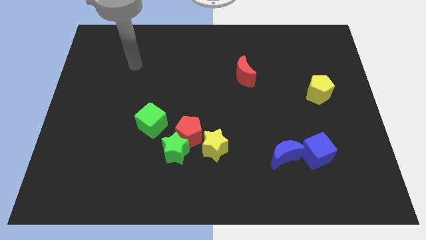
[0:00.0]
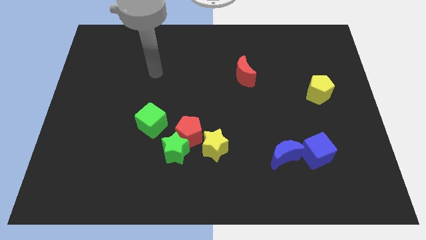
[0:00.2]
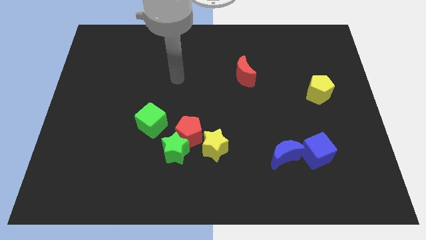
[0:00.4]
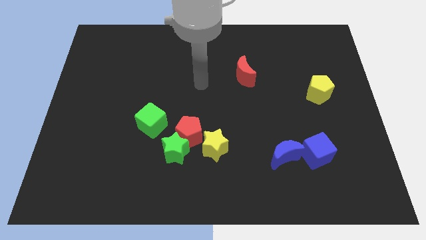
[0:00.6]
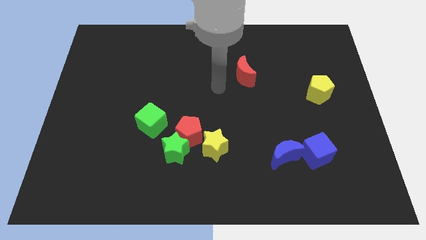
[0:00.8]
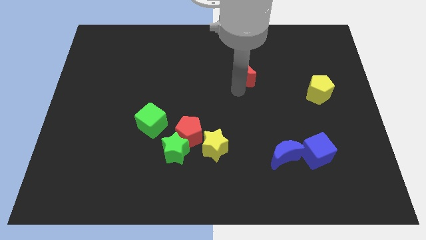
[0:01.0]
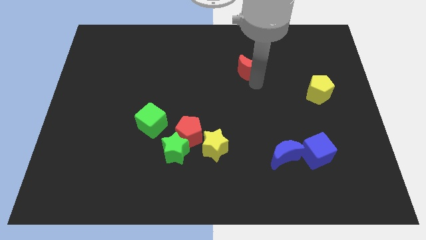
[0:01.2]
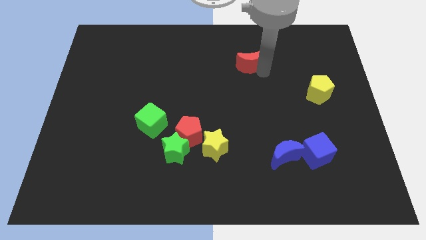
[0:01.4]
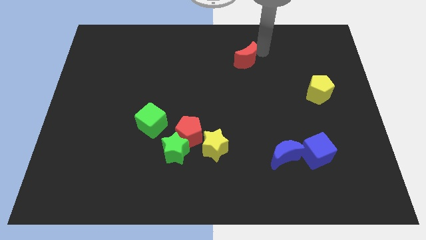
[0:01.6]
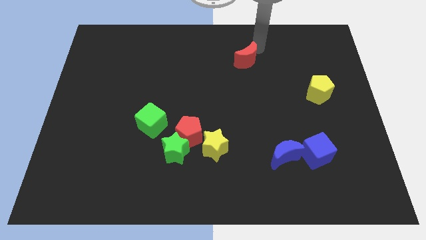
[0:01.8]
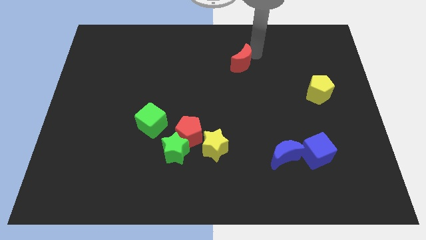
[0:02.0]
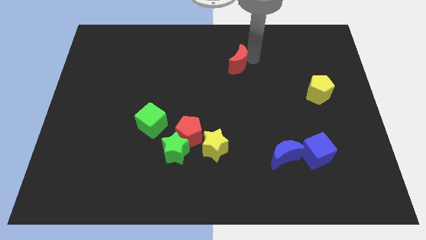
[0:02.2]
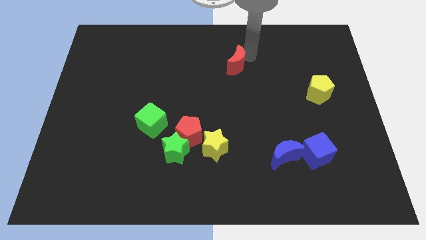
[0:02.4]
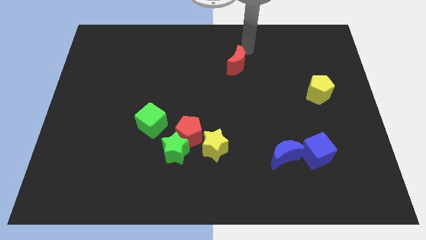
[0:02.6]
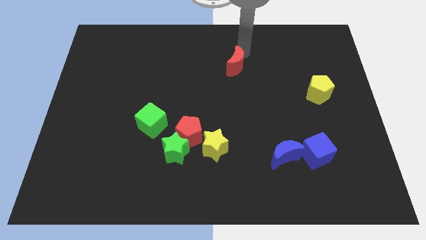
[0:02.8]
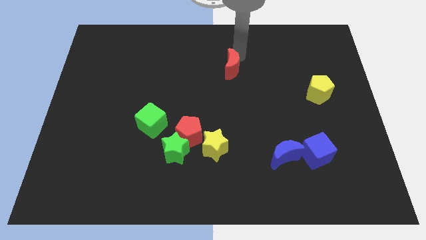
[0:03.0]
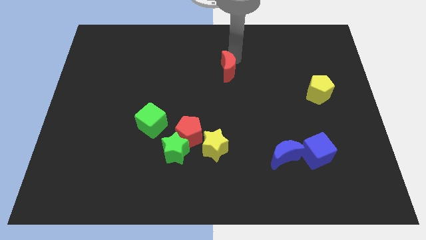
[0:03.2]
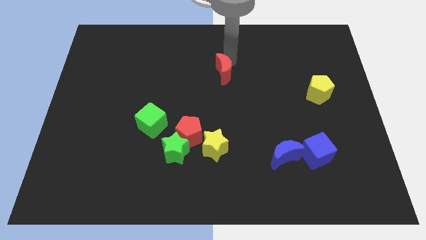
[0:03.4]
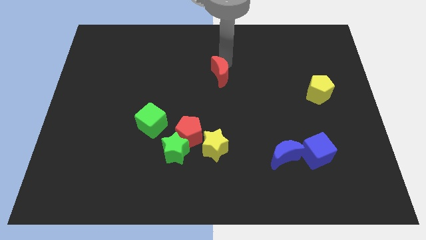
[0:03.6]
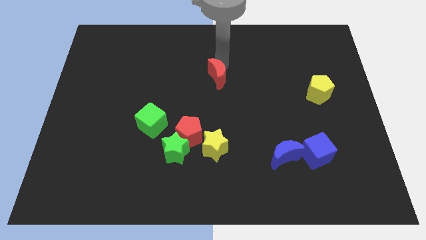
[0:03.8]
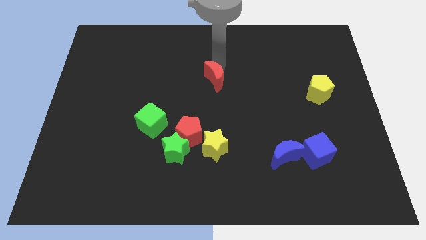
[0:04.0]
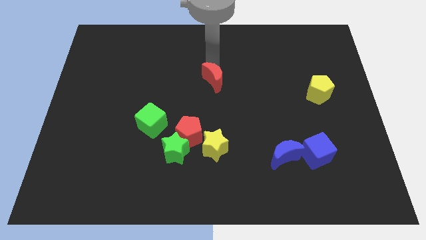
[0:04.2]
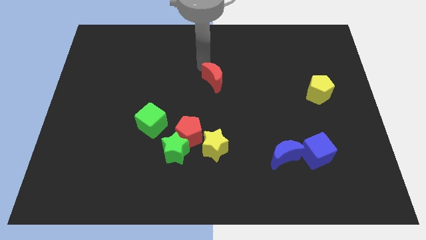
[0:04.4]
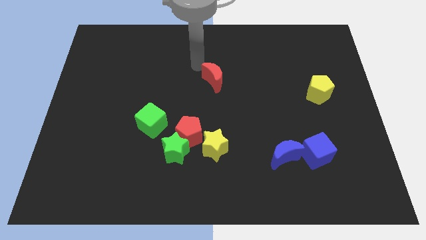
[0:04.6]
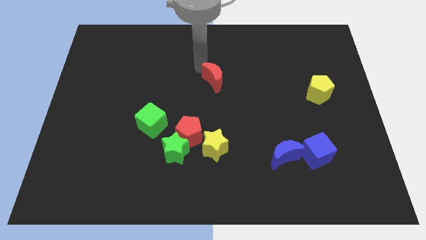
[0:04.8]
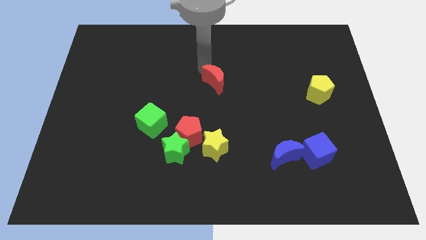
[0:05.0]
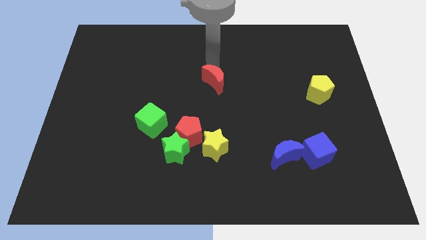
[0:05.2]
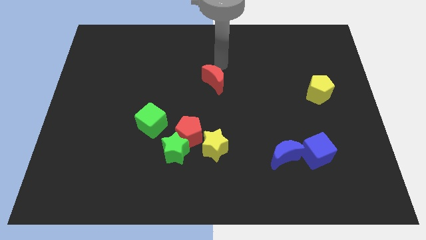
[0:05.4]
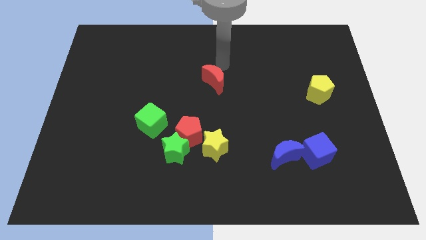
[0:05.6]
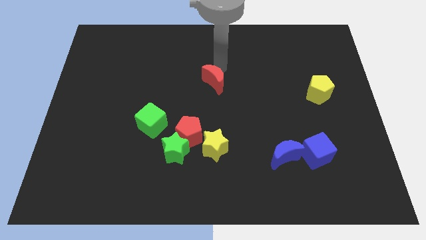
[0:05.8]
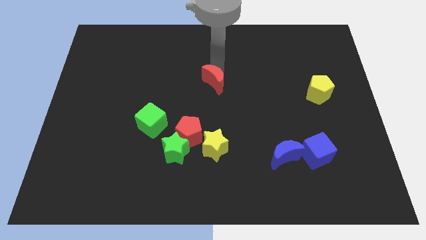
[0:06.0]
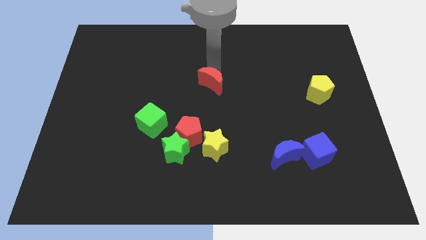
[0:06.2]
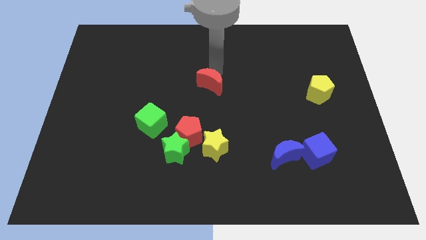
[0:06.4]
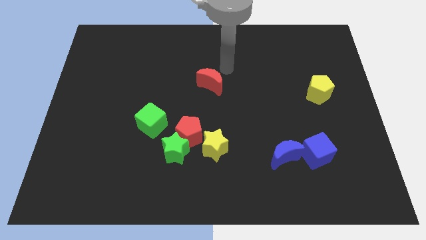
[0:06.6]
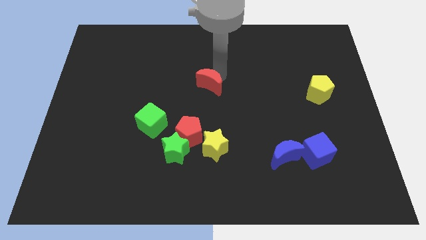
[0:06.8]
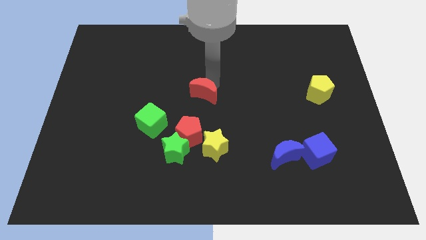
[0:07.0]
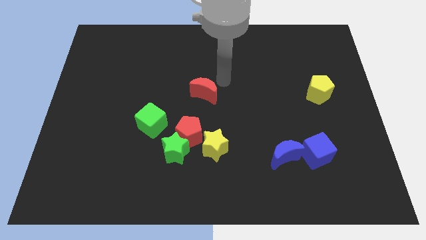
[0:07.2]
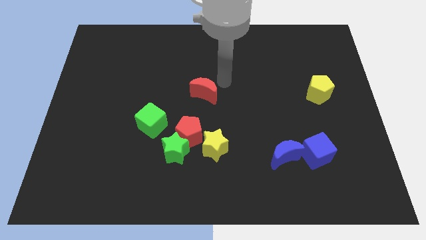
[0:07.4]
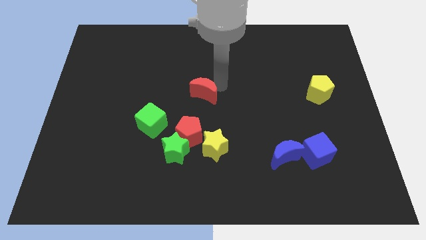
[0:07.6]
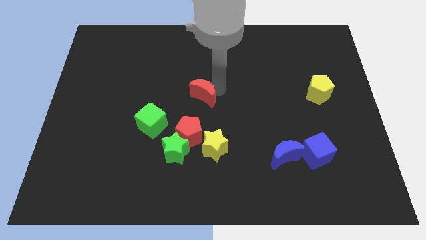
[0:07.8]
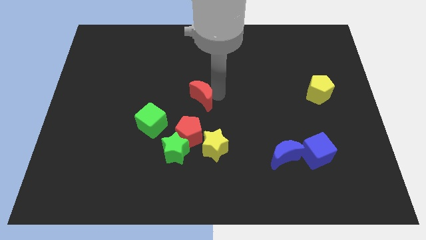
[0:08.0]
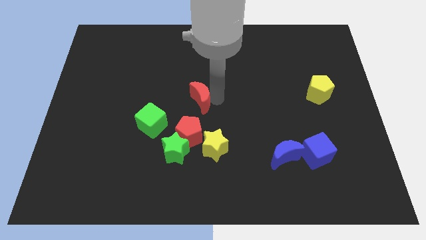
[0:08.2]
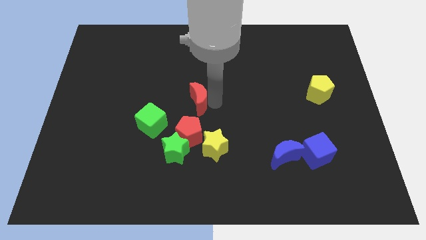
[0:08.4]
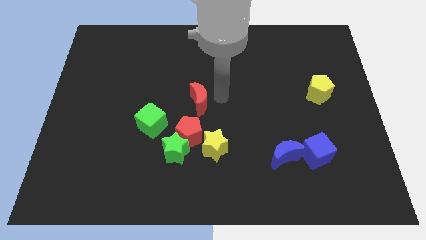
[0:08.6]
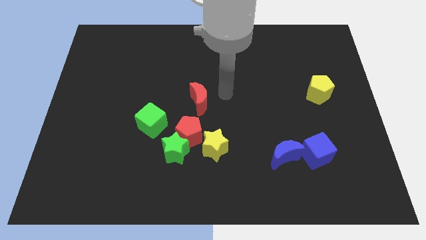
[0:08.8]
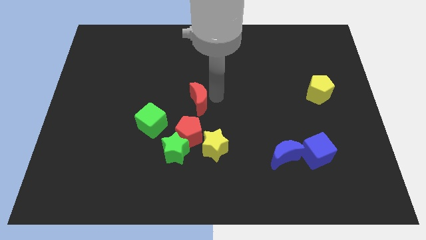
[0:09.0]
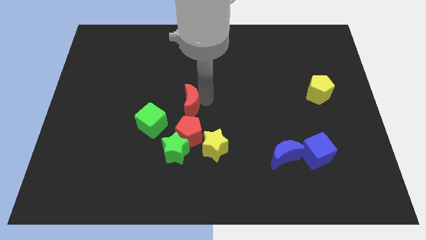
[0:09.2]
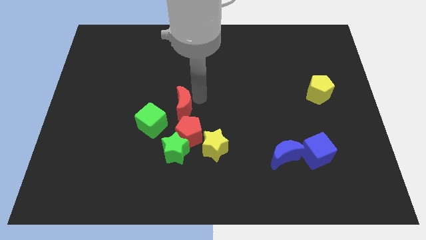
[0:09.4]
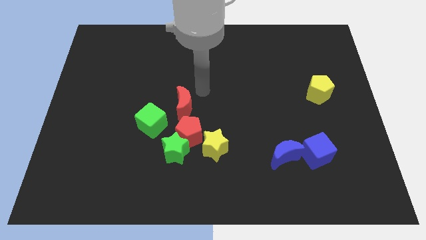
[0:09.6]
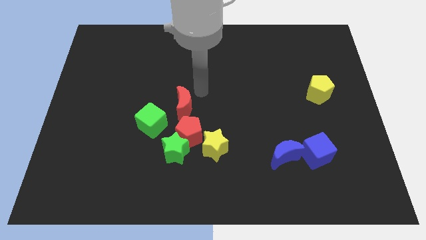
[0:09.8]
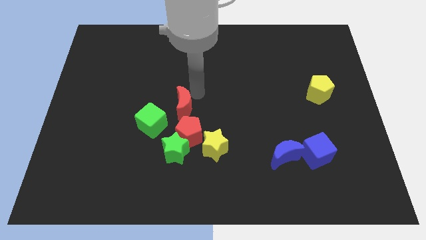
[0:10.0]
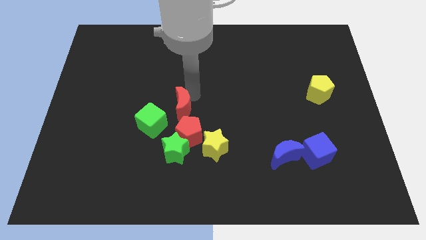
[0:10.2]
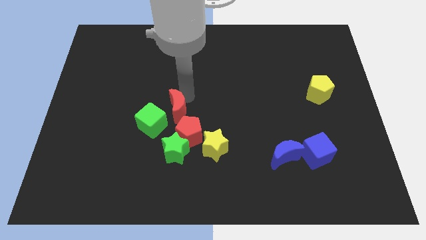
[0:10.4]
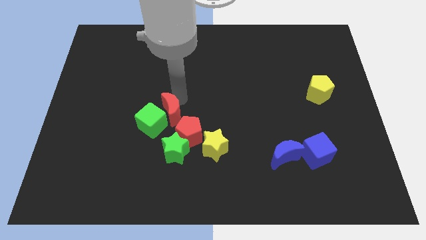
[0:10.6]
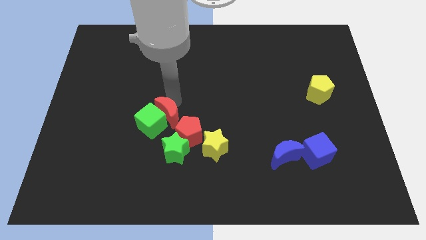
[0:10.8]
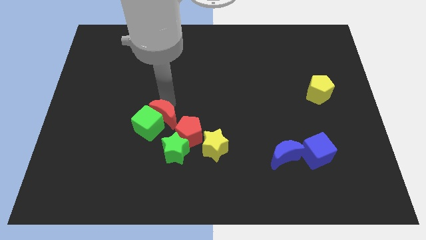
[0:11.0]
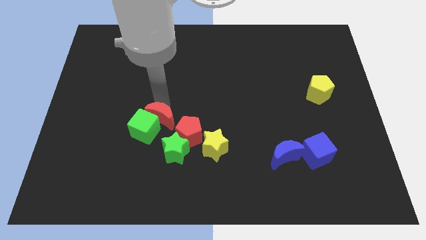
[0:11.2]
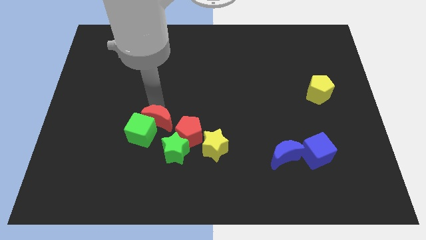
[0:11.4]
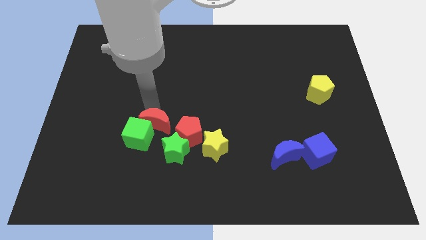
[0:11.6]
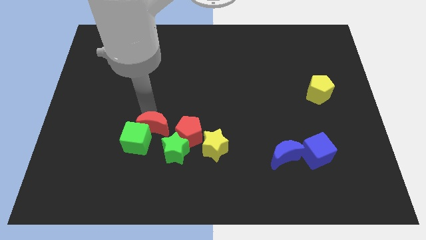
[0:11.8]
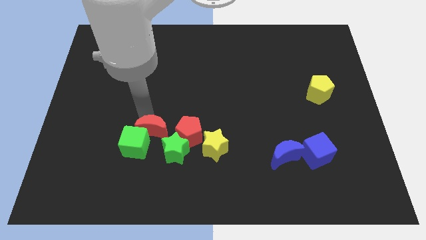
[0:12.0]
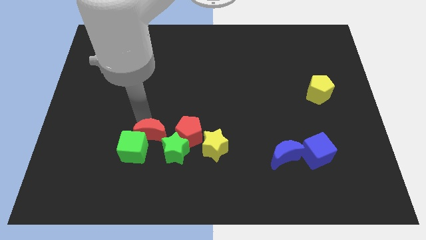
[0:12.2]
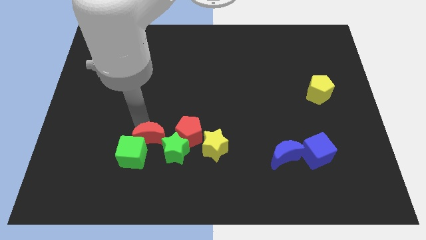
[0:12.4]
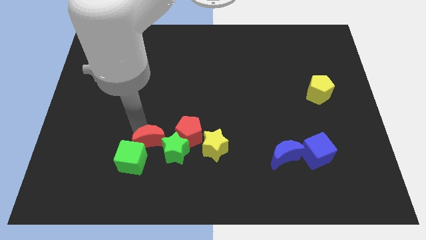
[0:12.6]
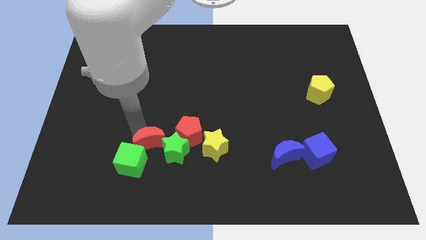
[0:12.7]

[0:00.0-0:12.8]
move the red moon close to the green star
